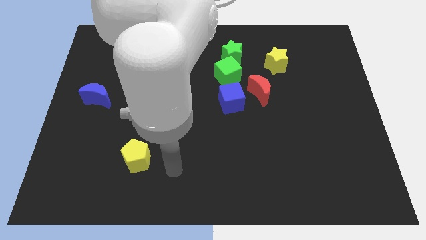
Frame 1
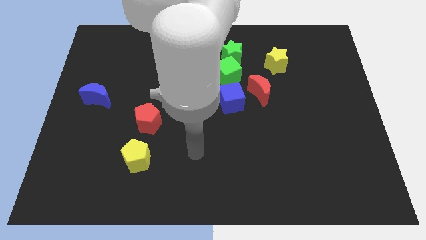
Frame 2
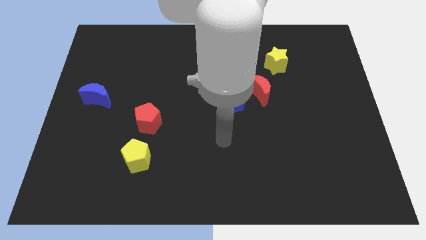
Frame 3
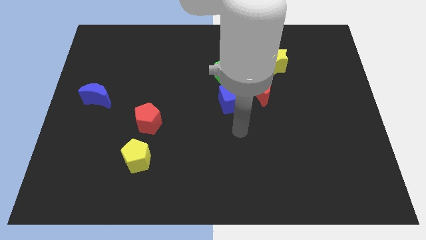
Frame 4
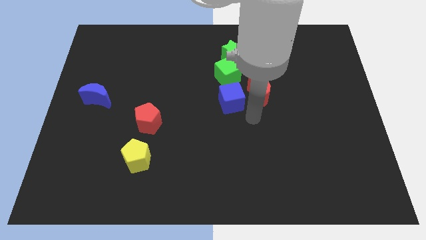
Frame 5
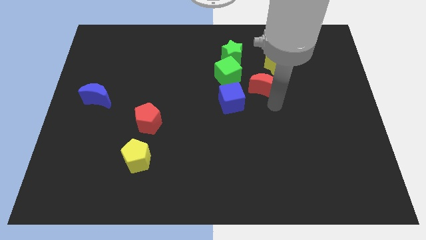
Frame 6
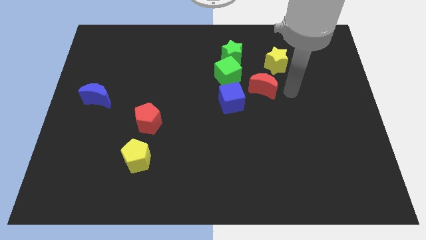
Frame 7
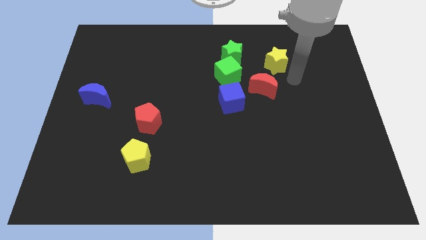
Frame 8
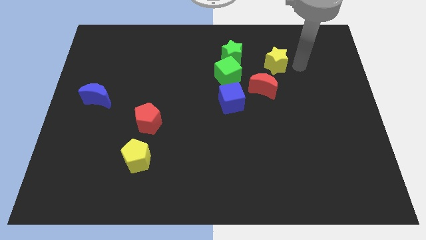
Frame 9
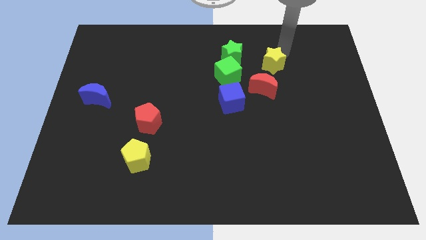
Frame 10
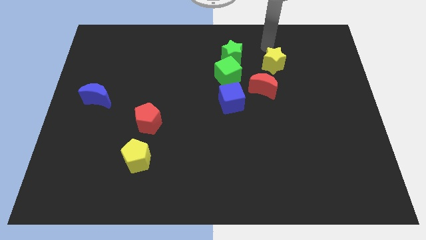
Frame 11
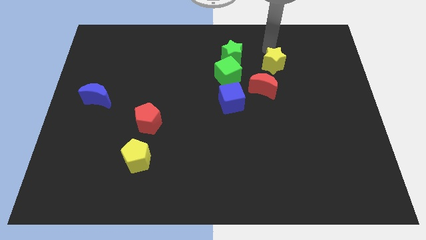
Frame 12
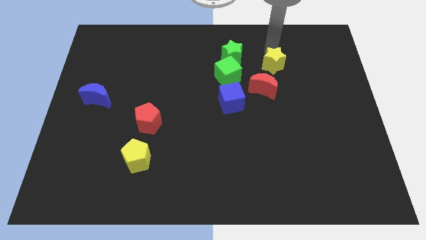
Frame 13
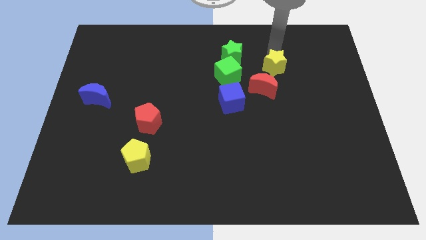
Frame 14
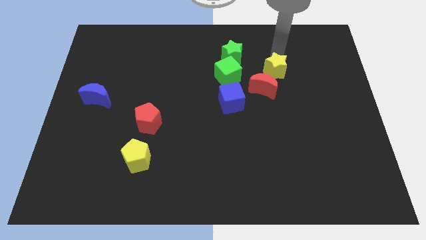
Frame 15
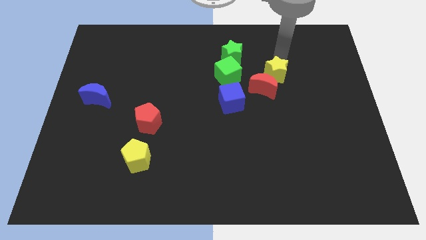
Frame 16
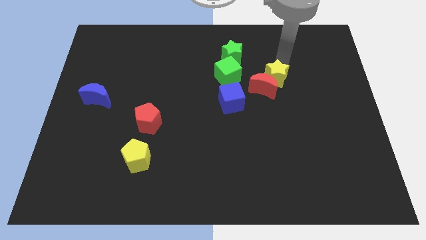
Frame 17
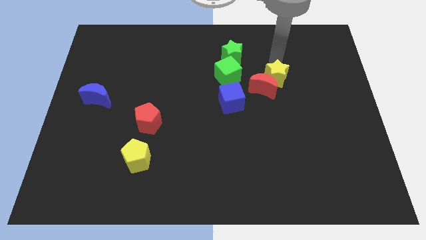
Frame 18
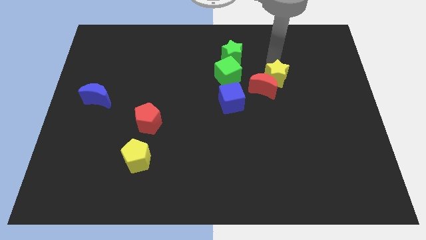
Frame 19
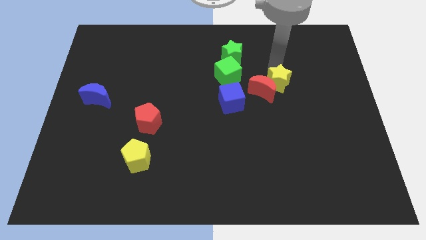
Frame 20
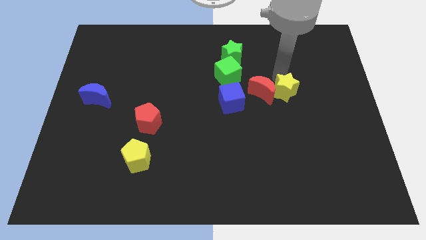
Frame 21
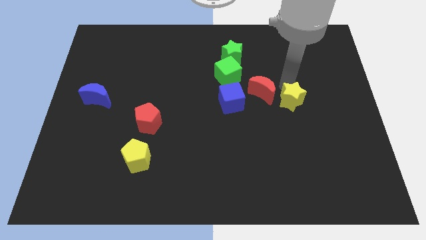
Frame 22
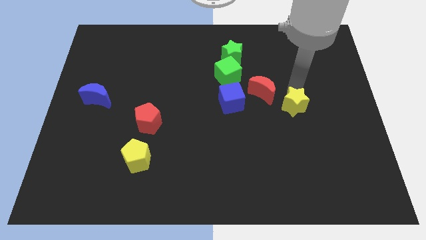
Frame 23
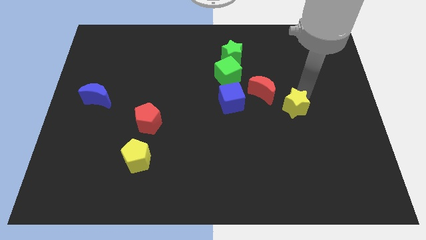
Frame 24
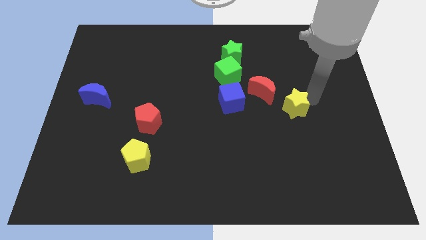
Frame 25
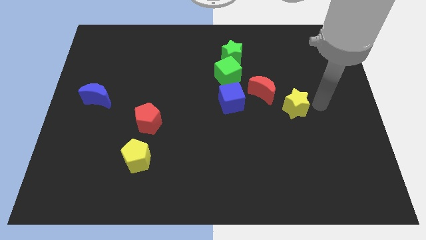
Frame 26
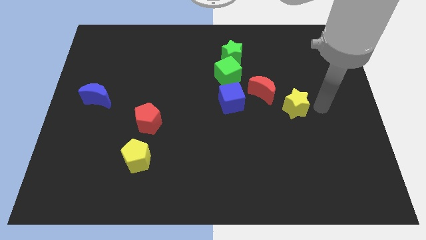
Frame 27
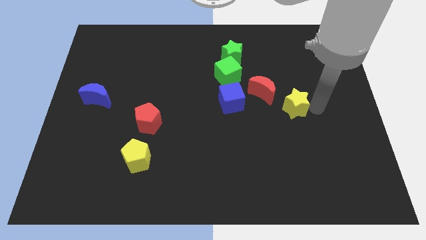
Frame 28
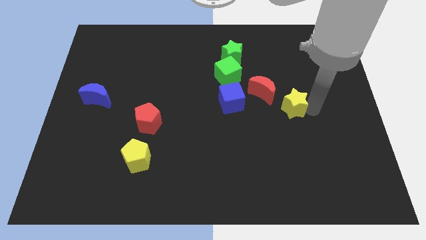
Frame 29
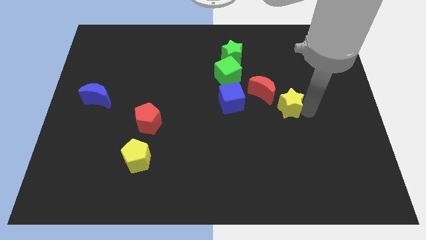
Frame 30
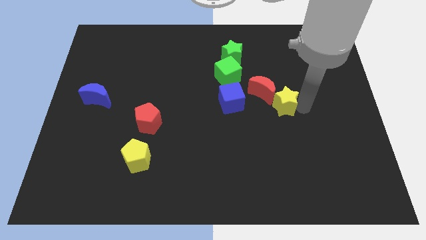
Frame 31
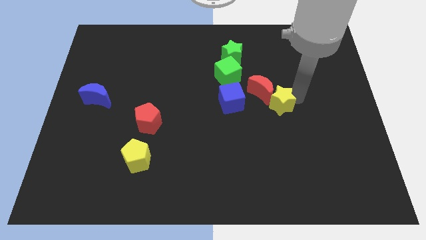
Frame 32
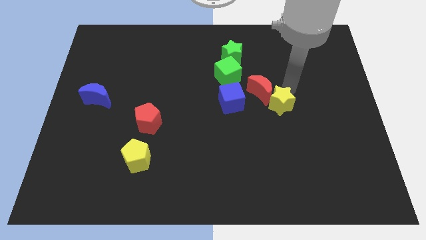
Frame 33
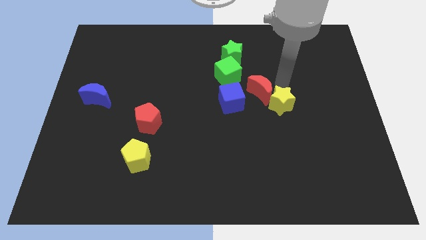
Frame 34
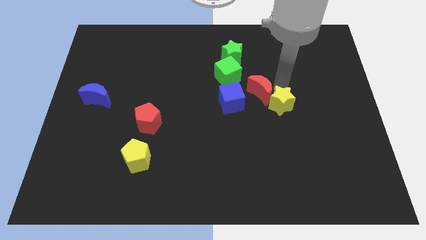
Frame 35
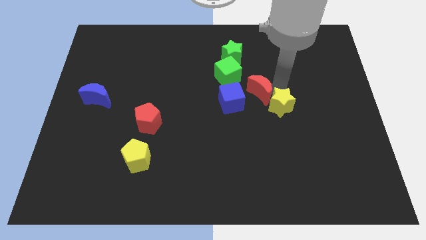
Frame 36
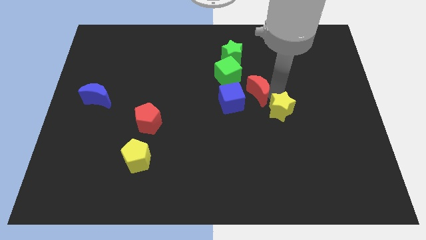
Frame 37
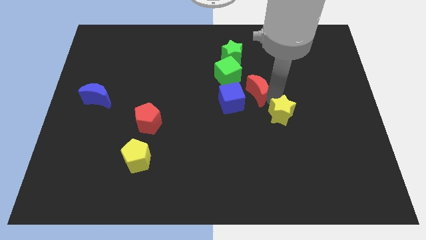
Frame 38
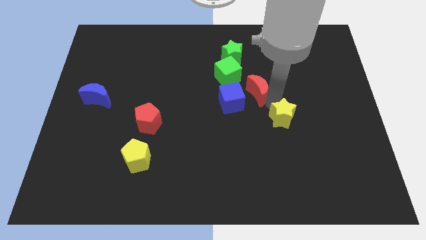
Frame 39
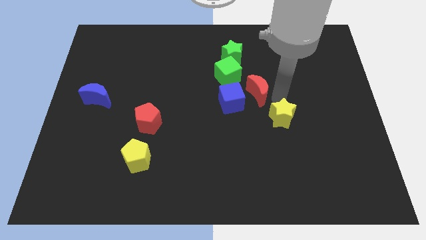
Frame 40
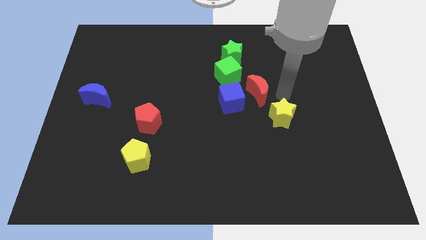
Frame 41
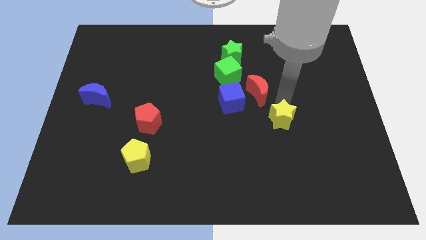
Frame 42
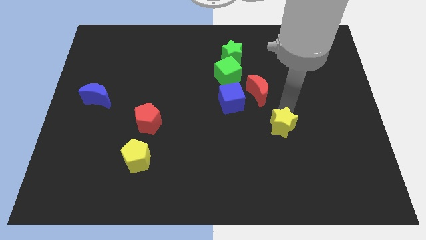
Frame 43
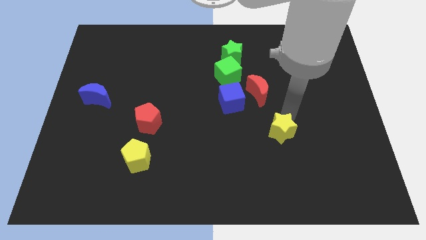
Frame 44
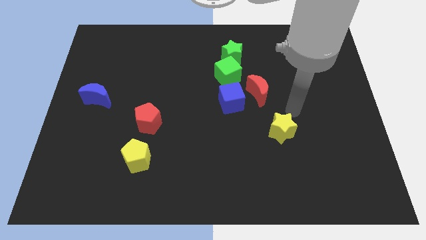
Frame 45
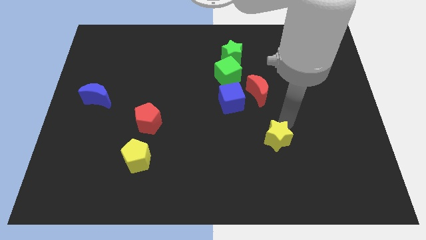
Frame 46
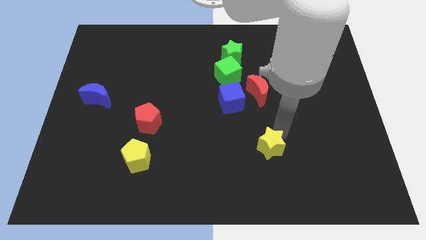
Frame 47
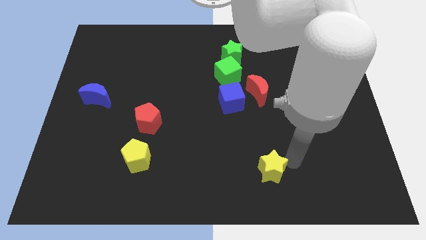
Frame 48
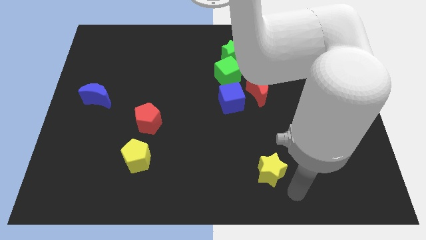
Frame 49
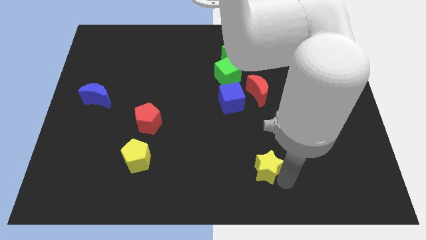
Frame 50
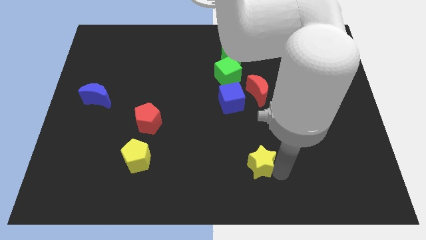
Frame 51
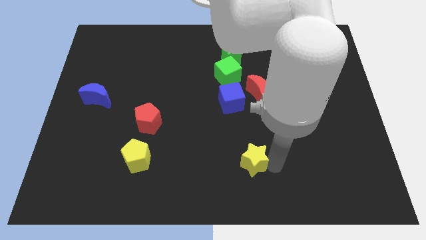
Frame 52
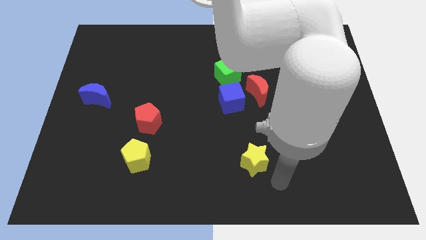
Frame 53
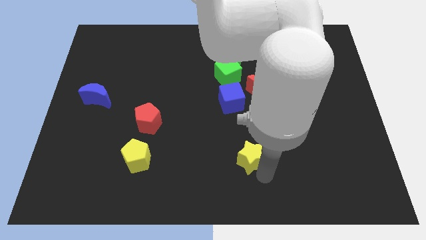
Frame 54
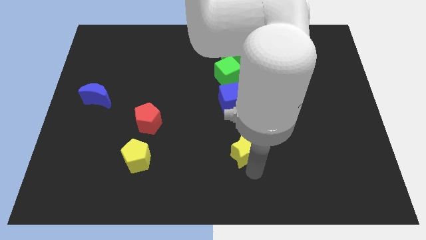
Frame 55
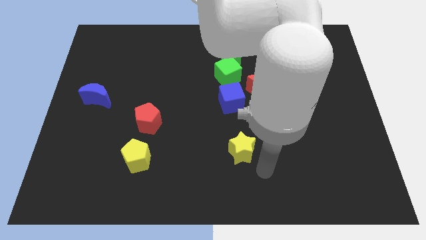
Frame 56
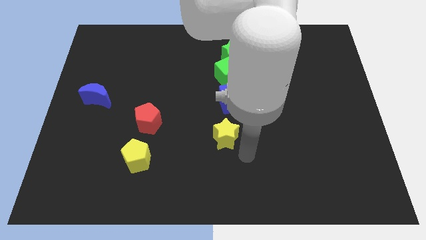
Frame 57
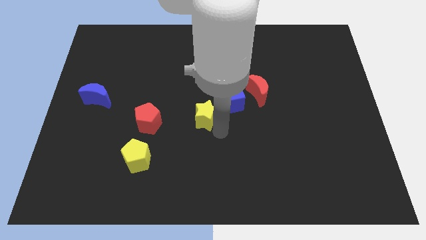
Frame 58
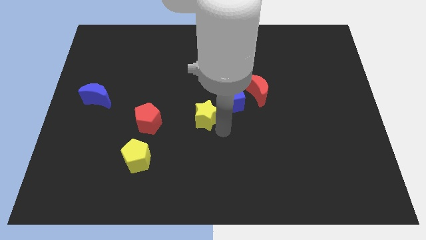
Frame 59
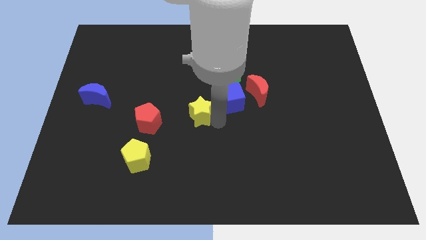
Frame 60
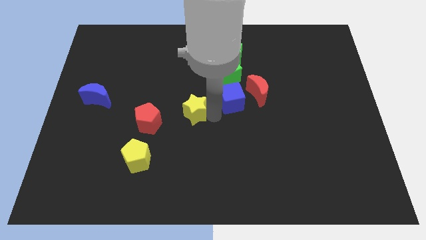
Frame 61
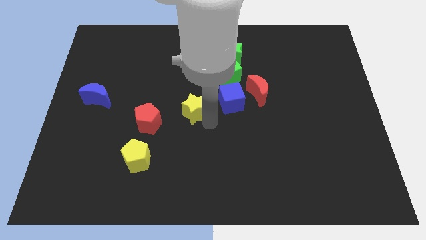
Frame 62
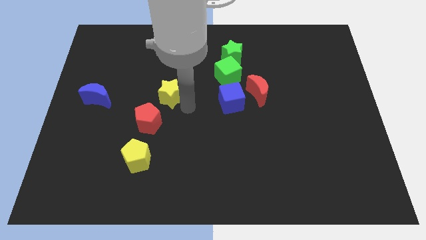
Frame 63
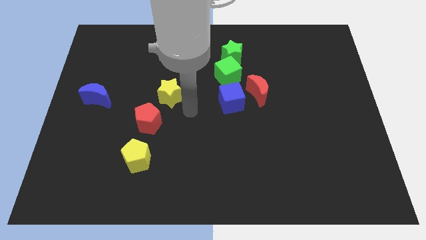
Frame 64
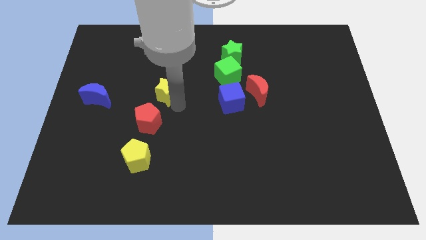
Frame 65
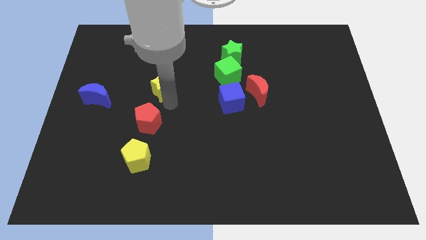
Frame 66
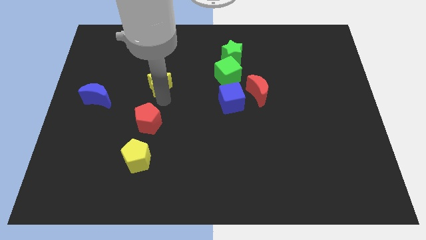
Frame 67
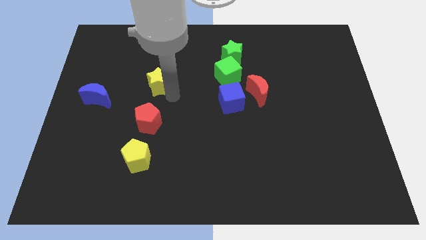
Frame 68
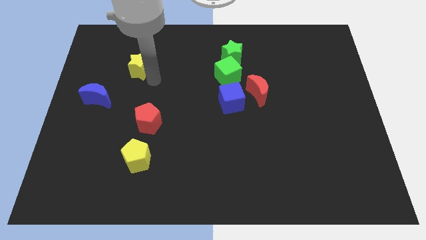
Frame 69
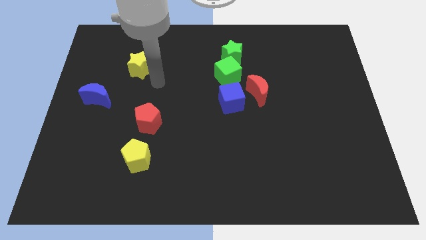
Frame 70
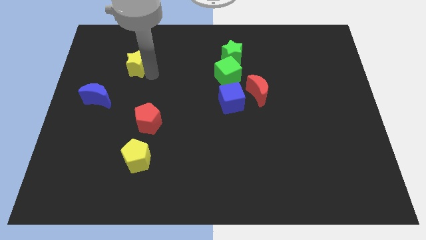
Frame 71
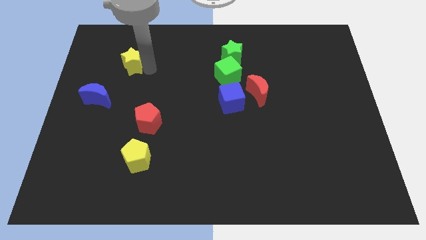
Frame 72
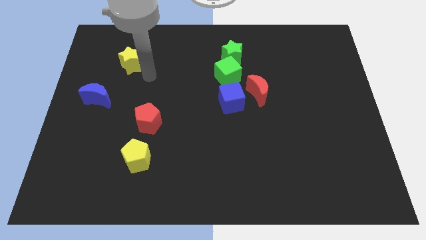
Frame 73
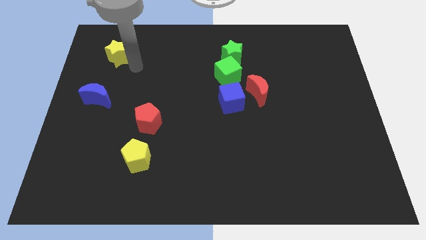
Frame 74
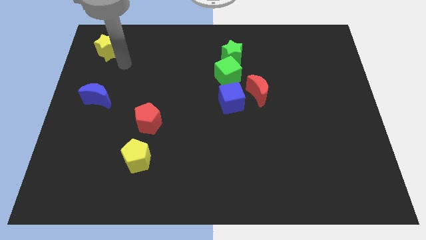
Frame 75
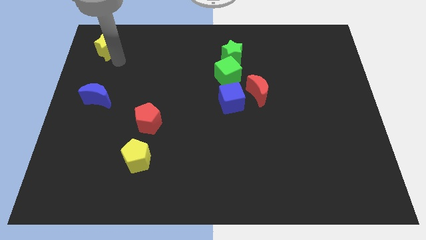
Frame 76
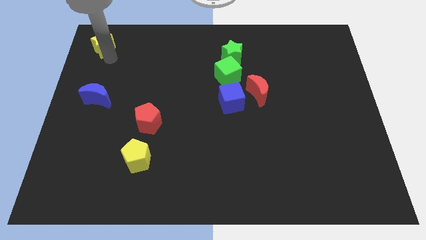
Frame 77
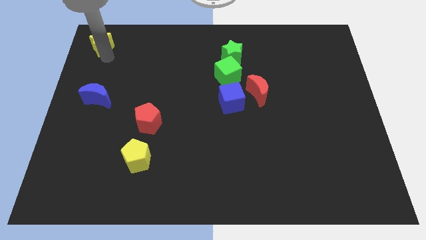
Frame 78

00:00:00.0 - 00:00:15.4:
slide the yellow star to the top left
